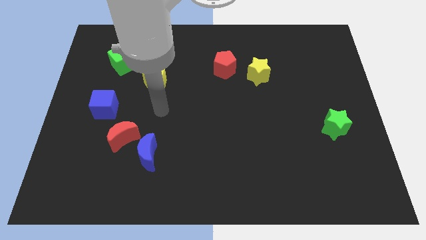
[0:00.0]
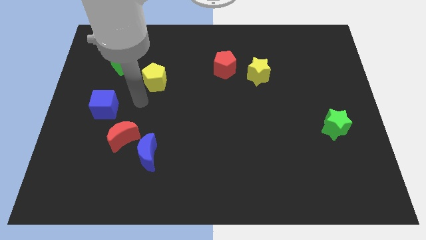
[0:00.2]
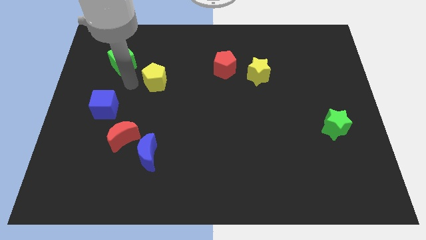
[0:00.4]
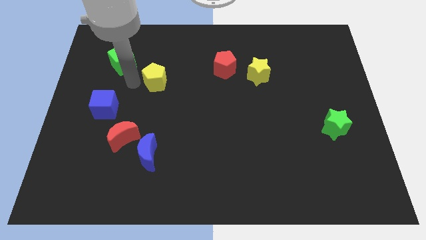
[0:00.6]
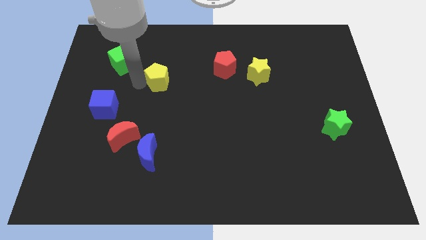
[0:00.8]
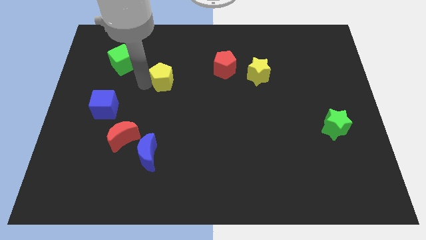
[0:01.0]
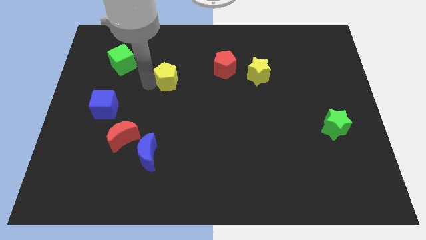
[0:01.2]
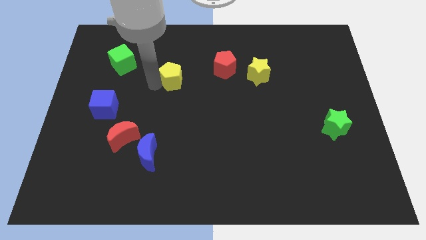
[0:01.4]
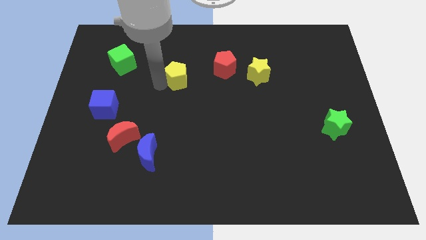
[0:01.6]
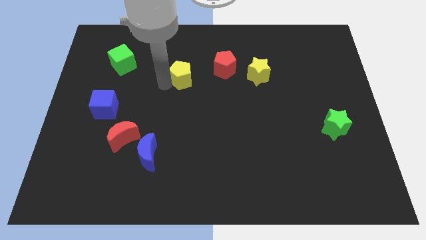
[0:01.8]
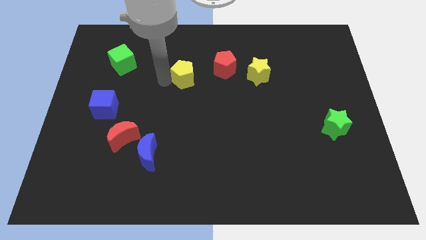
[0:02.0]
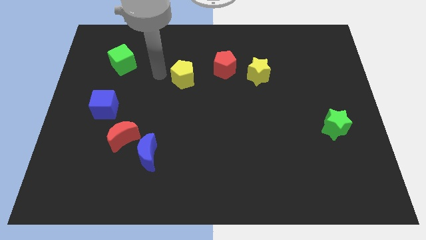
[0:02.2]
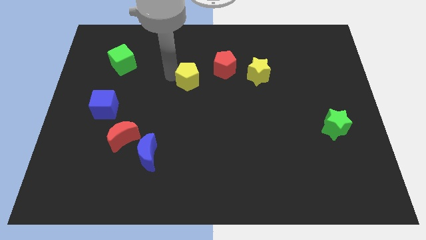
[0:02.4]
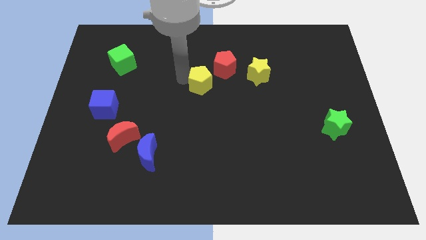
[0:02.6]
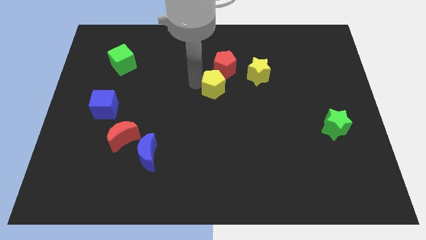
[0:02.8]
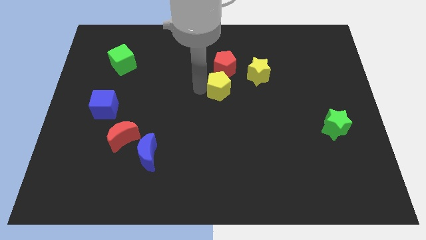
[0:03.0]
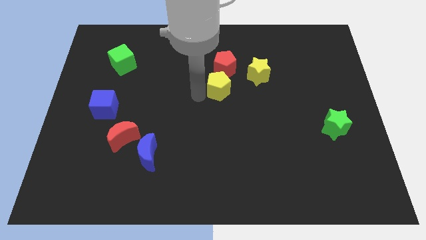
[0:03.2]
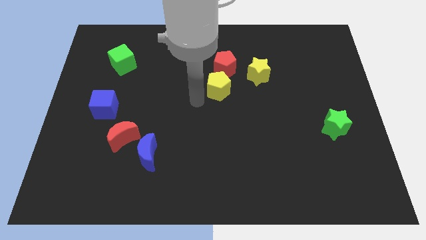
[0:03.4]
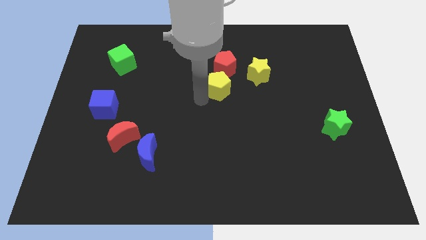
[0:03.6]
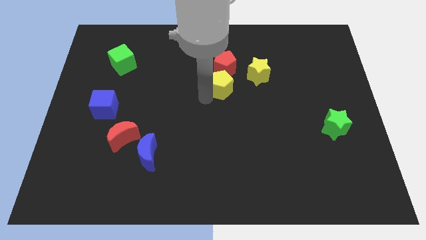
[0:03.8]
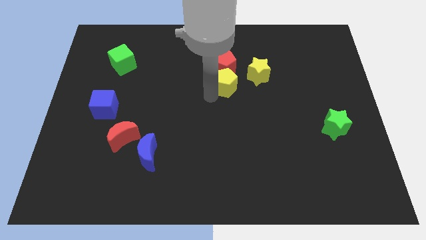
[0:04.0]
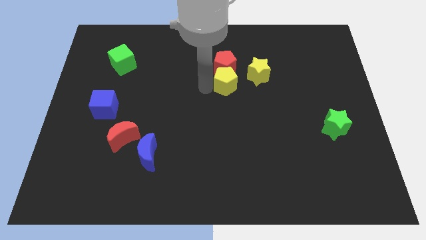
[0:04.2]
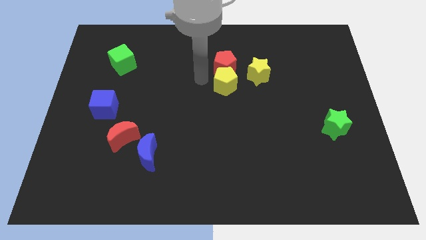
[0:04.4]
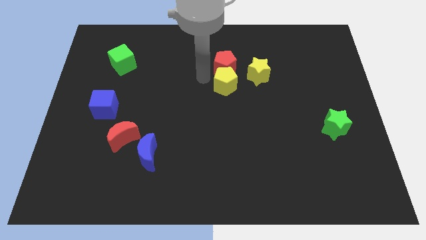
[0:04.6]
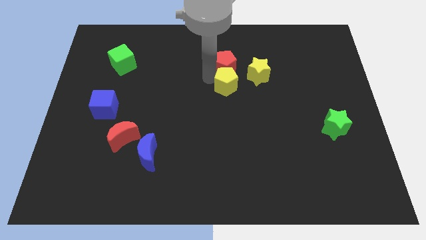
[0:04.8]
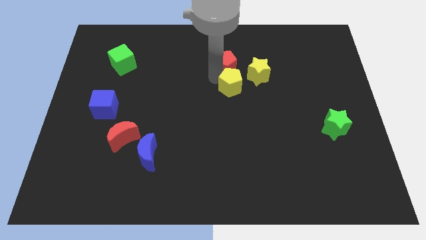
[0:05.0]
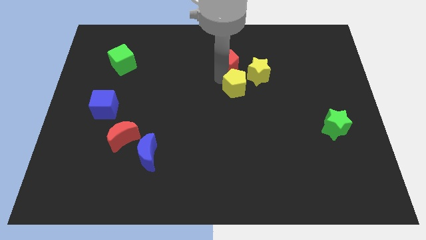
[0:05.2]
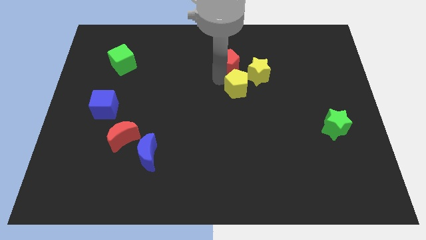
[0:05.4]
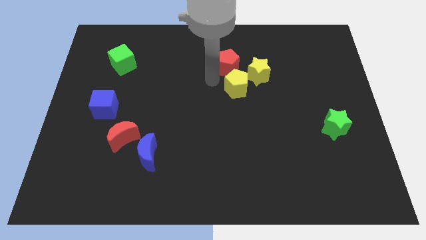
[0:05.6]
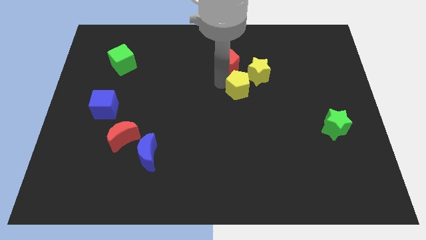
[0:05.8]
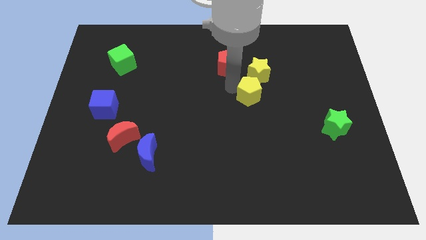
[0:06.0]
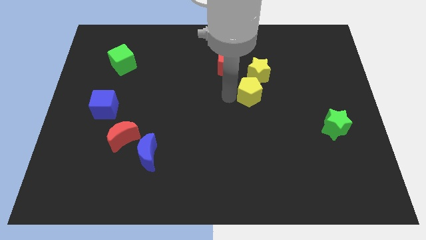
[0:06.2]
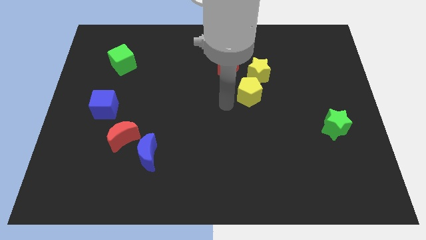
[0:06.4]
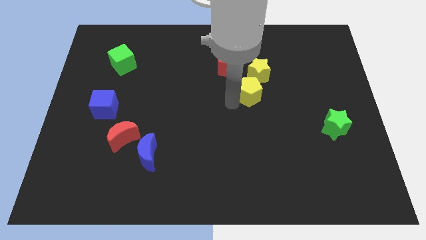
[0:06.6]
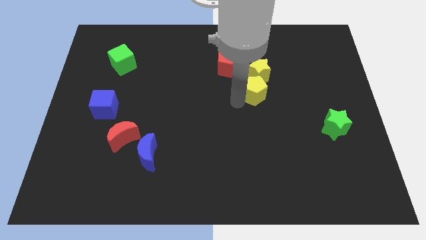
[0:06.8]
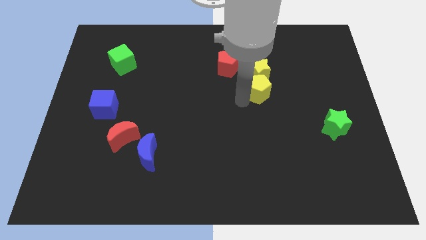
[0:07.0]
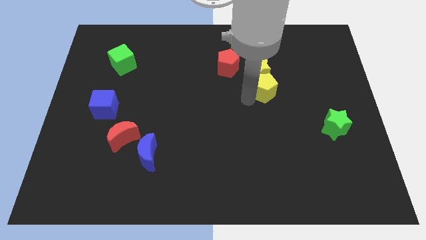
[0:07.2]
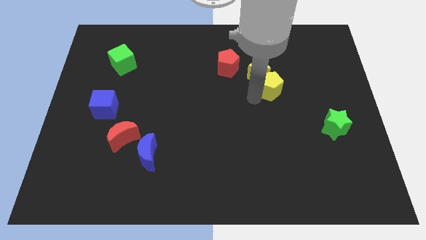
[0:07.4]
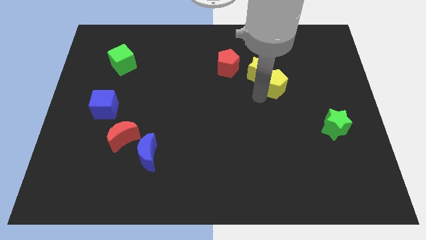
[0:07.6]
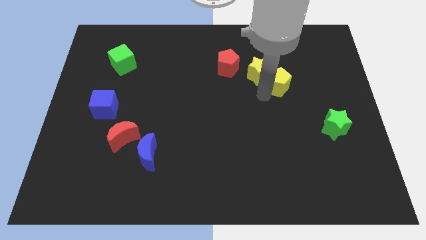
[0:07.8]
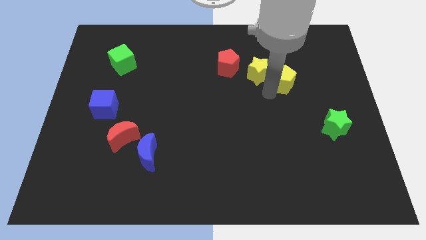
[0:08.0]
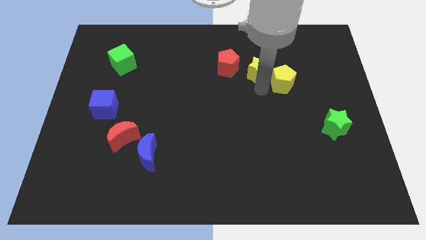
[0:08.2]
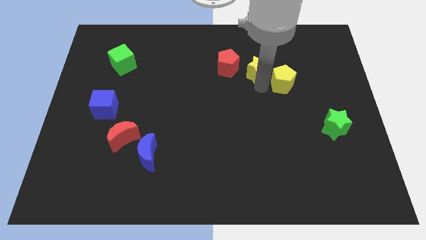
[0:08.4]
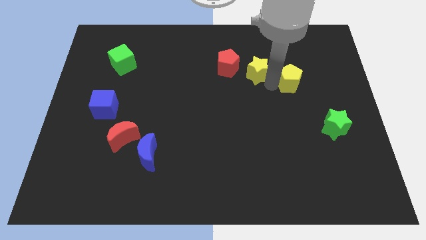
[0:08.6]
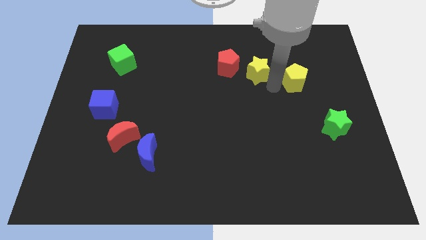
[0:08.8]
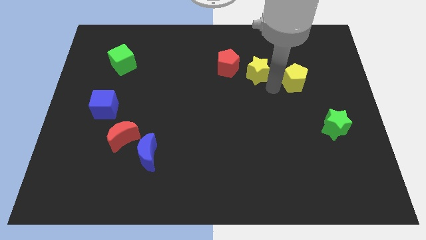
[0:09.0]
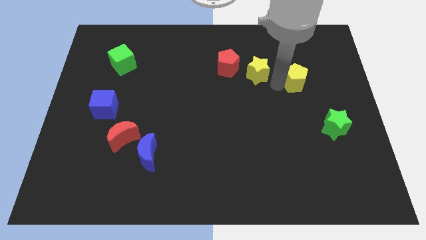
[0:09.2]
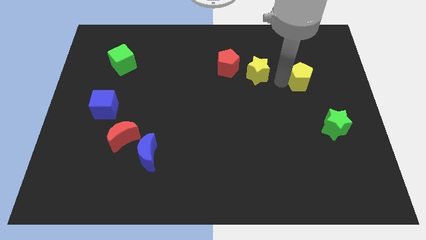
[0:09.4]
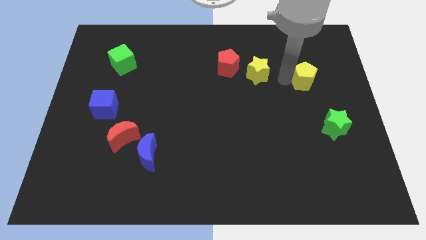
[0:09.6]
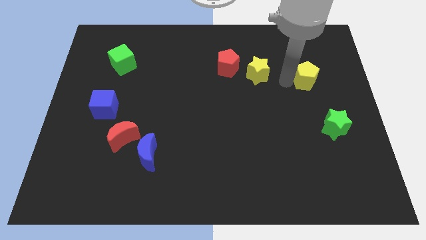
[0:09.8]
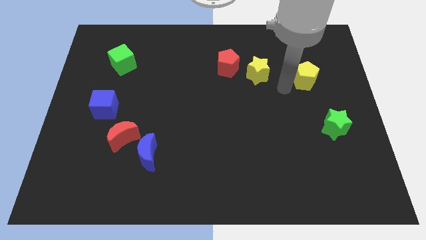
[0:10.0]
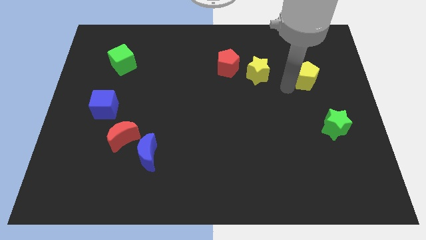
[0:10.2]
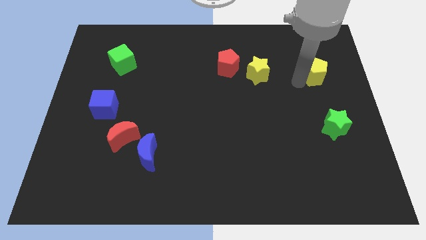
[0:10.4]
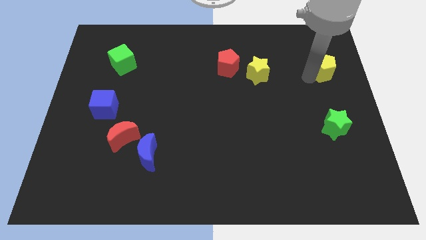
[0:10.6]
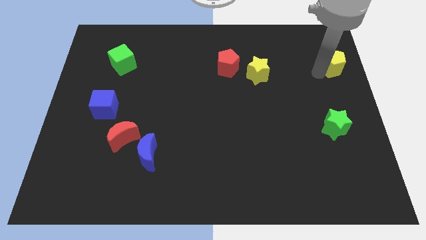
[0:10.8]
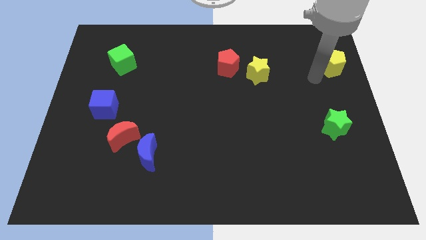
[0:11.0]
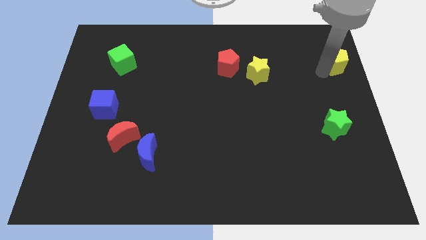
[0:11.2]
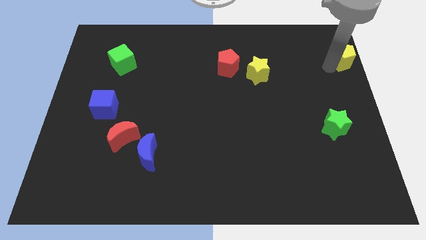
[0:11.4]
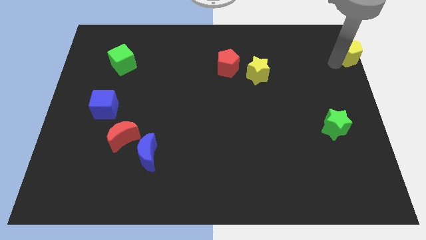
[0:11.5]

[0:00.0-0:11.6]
slide the yellow pentagon to the top right of the board
